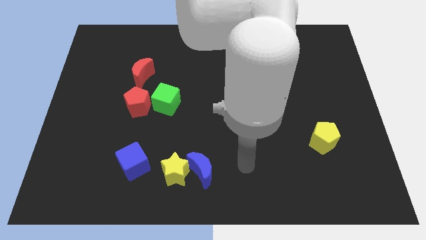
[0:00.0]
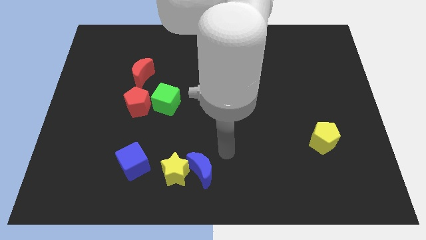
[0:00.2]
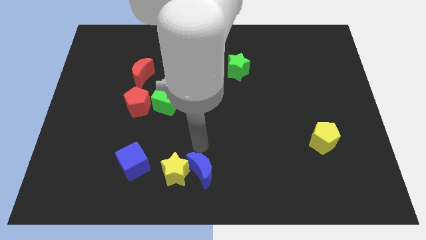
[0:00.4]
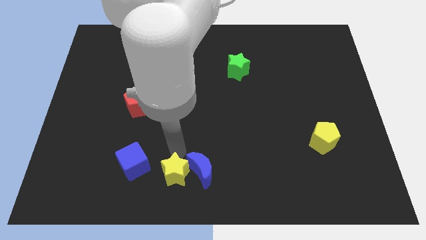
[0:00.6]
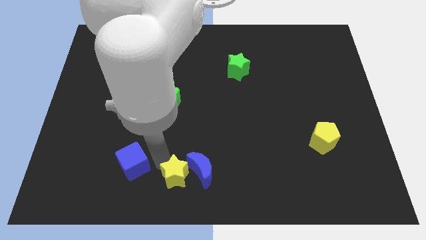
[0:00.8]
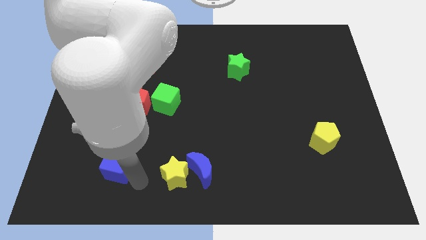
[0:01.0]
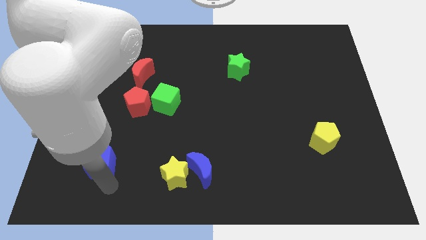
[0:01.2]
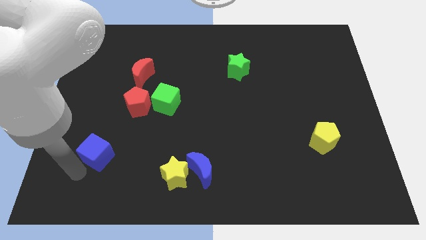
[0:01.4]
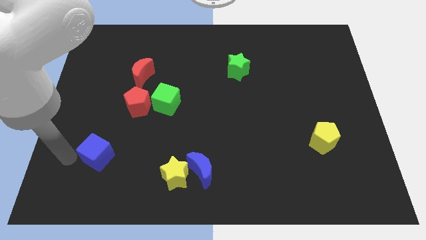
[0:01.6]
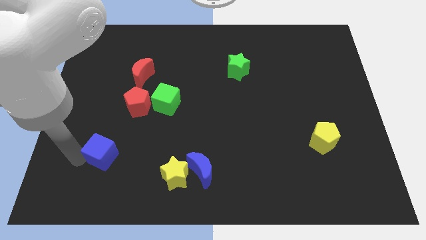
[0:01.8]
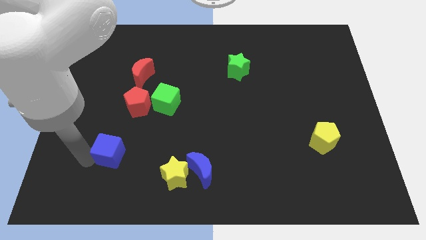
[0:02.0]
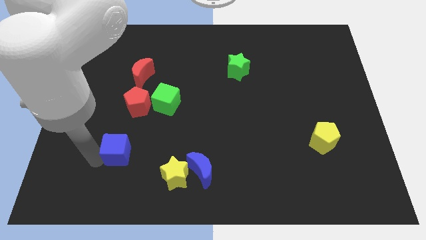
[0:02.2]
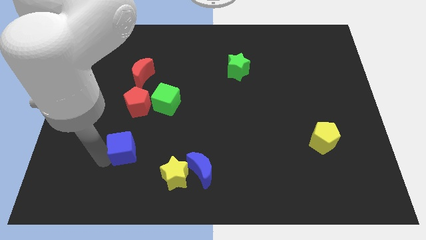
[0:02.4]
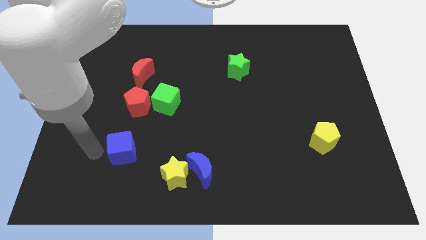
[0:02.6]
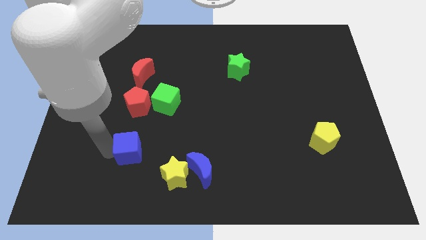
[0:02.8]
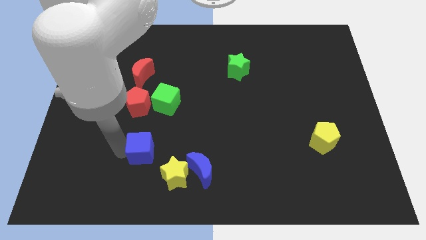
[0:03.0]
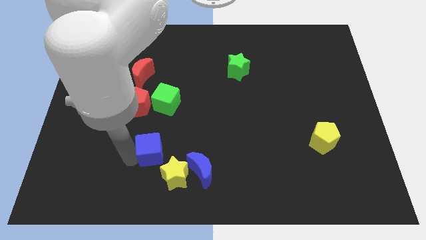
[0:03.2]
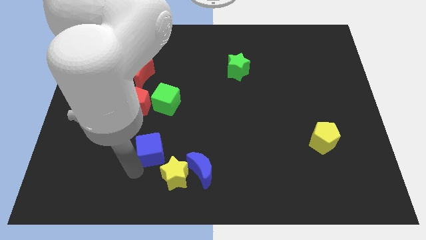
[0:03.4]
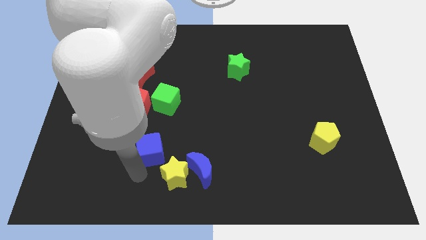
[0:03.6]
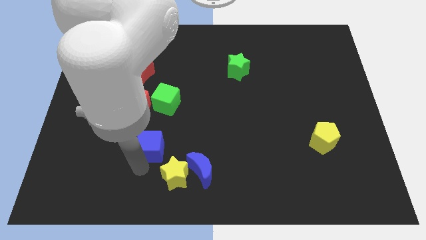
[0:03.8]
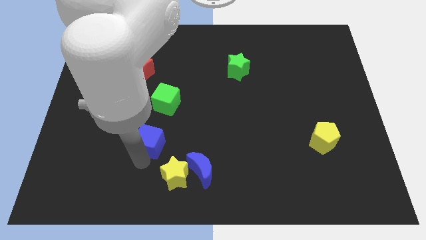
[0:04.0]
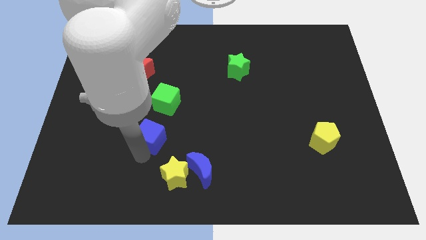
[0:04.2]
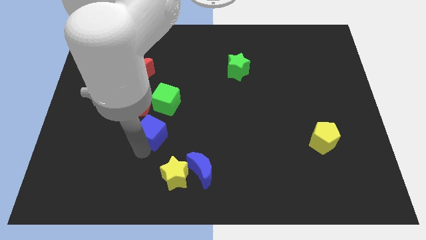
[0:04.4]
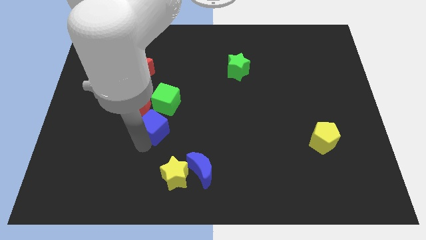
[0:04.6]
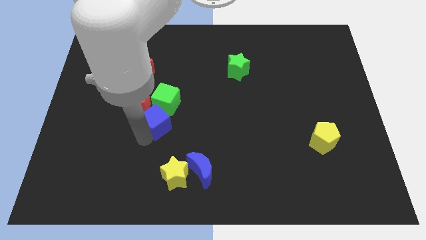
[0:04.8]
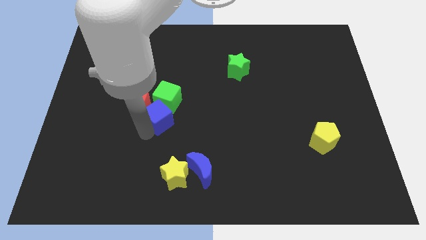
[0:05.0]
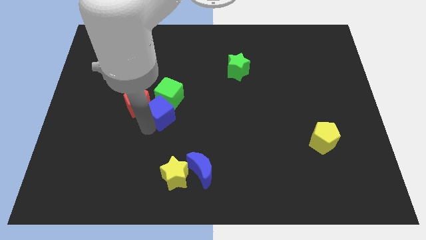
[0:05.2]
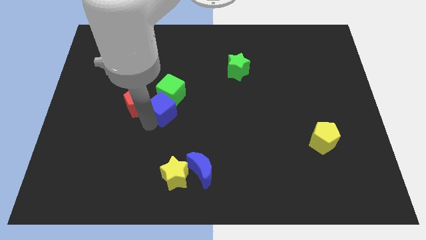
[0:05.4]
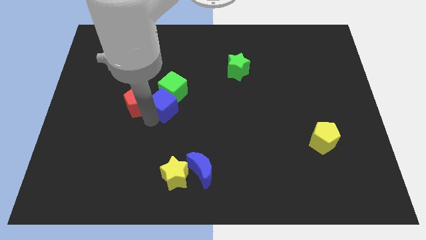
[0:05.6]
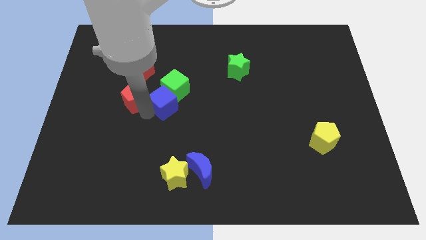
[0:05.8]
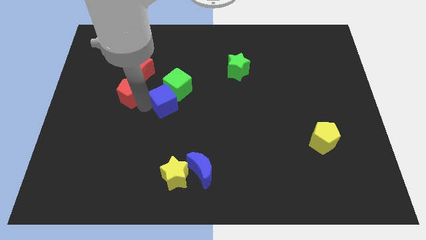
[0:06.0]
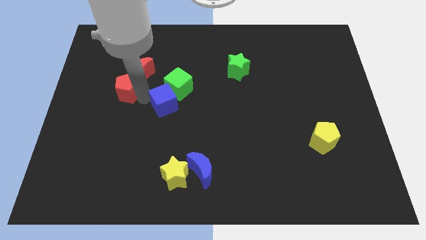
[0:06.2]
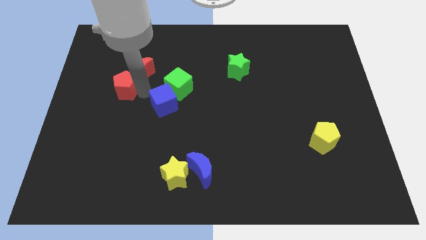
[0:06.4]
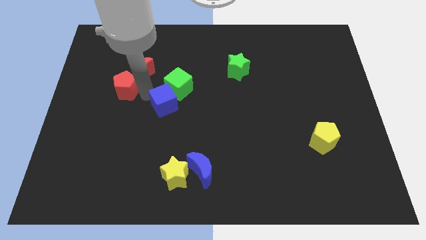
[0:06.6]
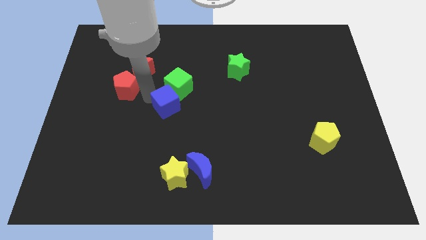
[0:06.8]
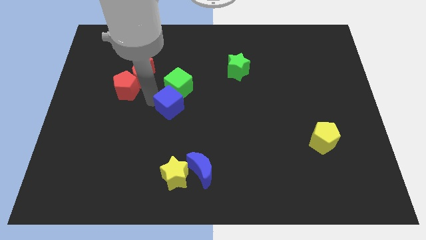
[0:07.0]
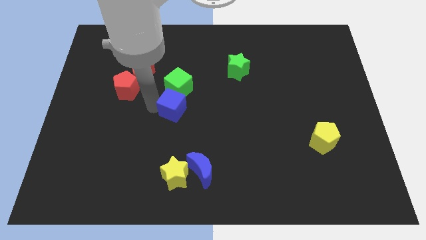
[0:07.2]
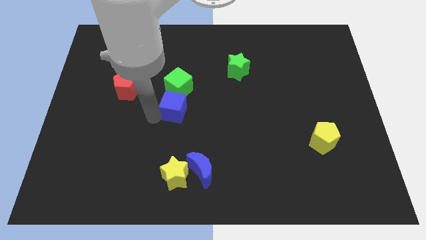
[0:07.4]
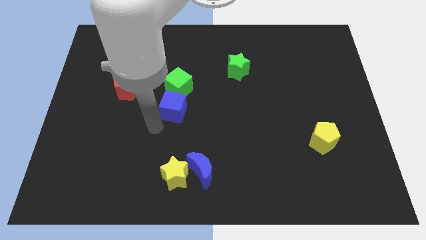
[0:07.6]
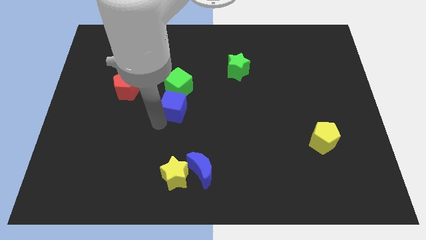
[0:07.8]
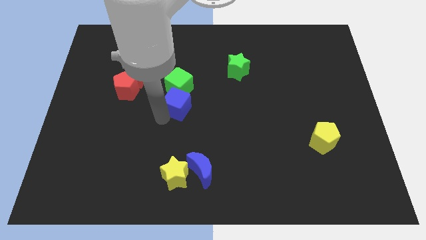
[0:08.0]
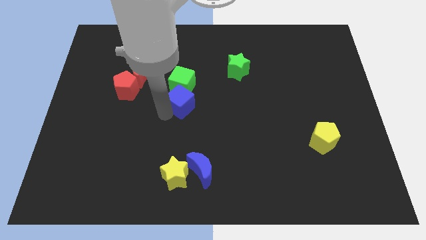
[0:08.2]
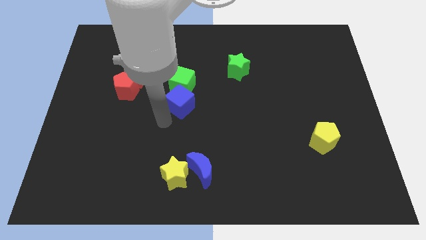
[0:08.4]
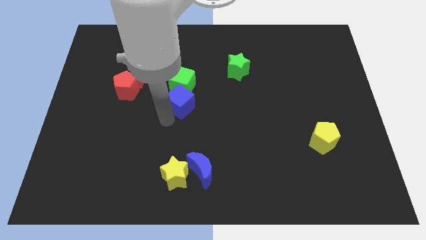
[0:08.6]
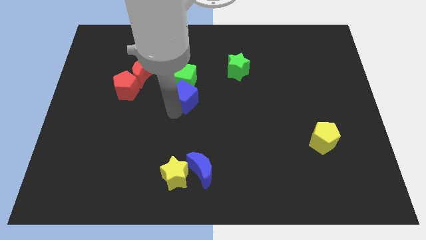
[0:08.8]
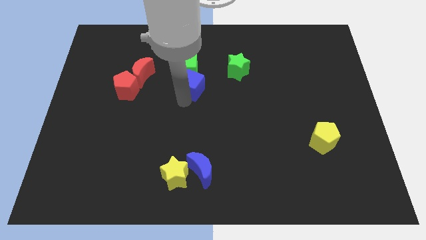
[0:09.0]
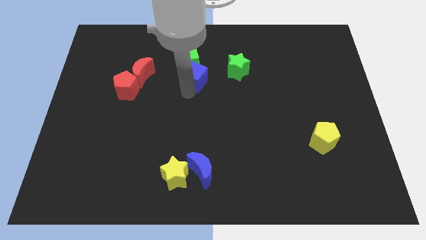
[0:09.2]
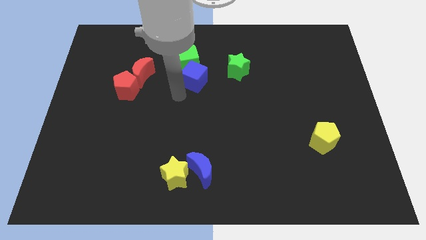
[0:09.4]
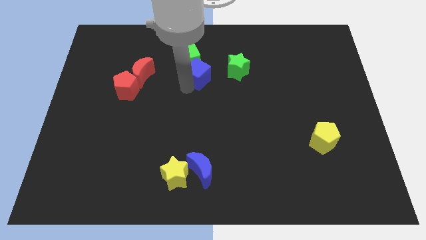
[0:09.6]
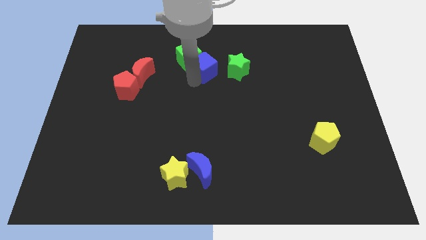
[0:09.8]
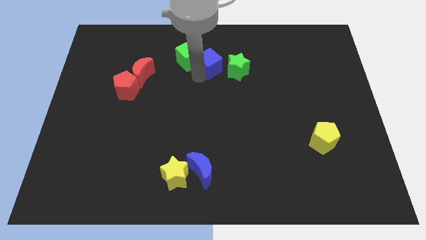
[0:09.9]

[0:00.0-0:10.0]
move the blue cube to the top left of the green star

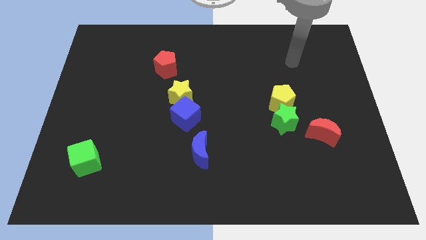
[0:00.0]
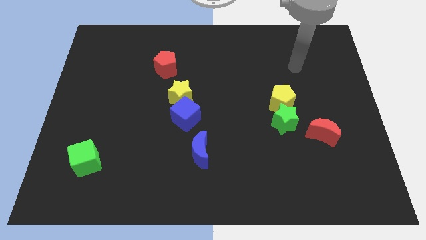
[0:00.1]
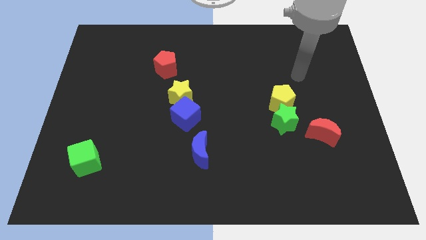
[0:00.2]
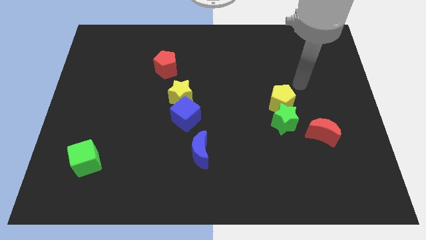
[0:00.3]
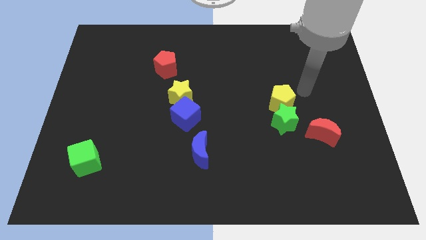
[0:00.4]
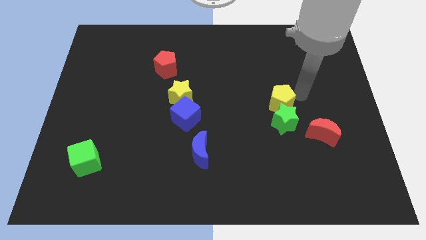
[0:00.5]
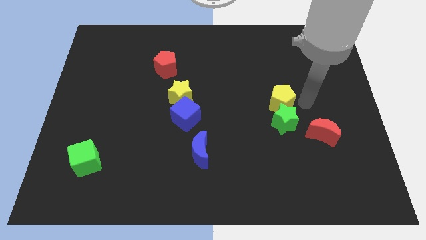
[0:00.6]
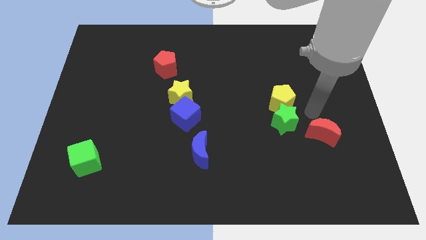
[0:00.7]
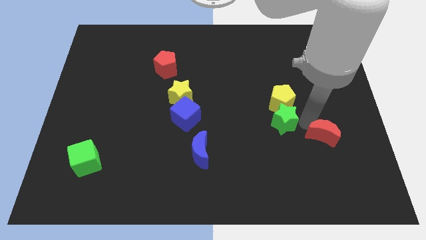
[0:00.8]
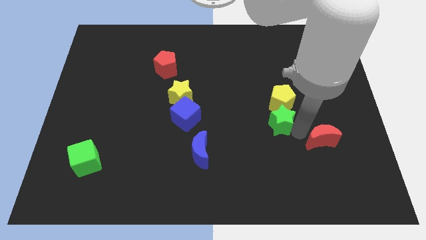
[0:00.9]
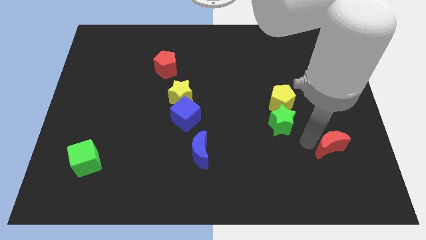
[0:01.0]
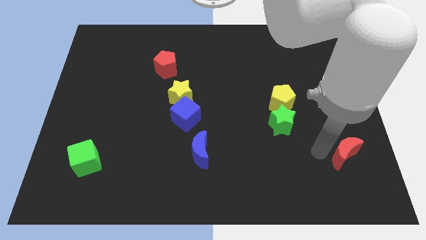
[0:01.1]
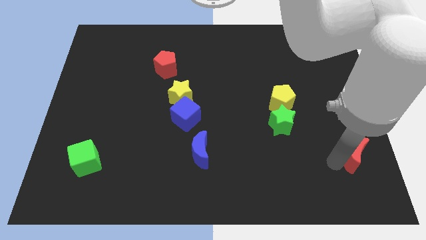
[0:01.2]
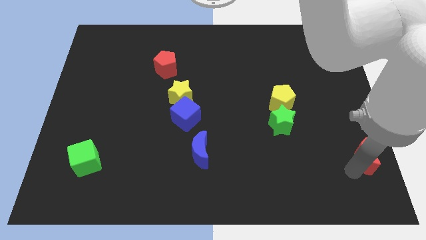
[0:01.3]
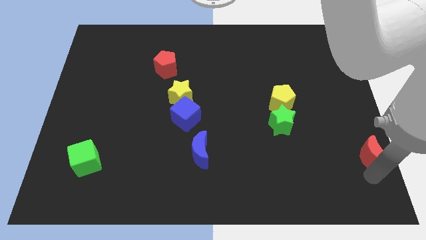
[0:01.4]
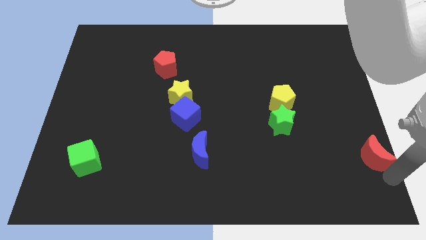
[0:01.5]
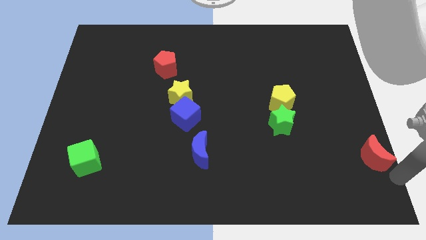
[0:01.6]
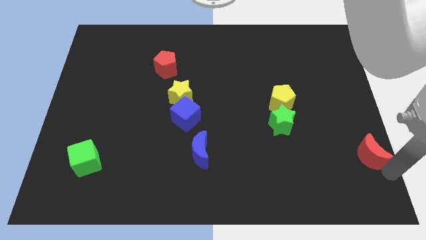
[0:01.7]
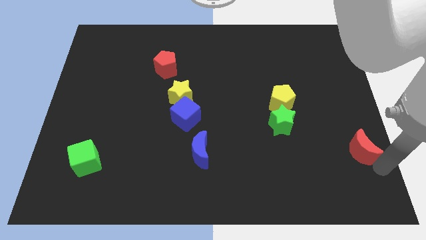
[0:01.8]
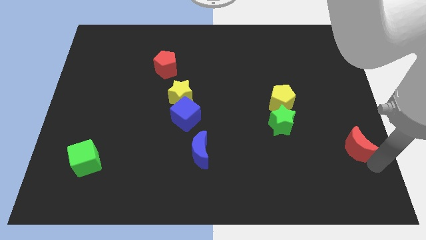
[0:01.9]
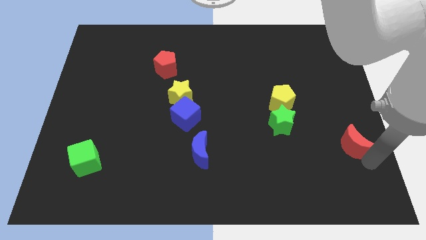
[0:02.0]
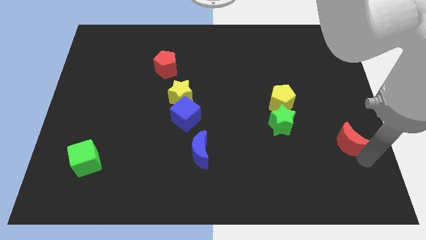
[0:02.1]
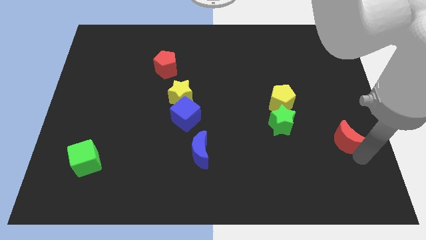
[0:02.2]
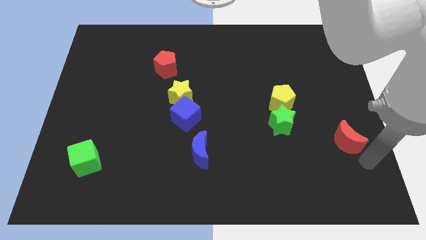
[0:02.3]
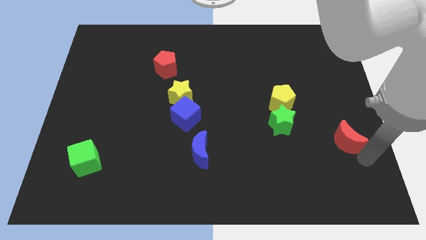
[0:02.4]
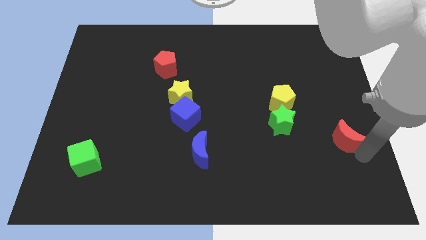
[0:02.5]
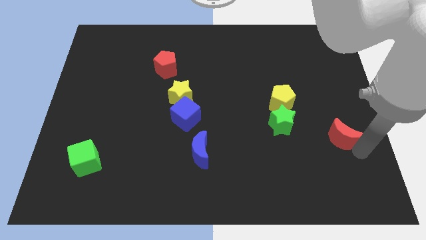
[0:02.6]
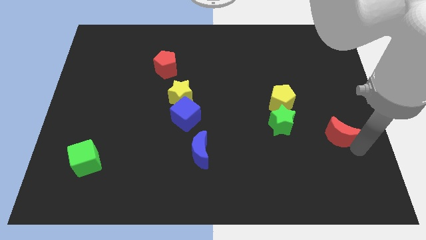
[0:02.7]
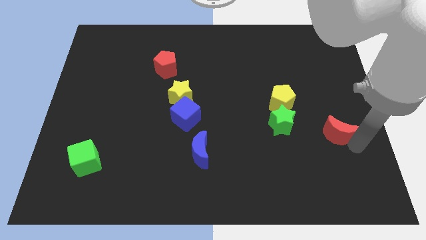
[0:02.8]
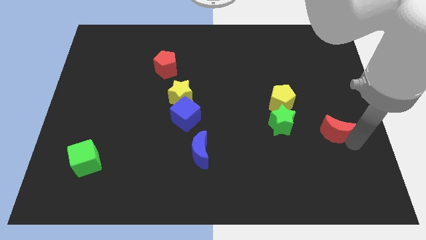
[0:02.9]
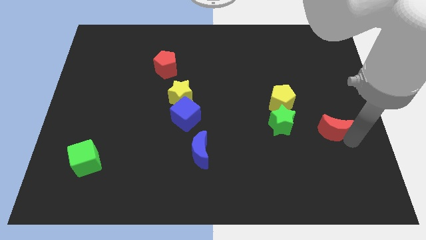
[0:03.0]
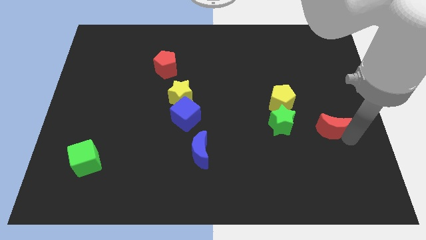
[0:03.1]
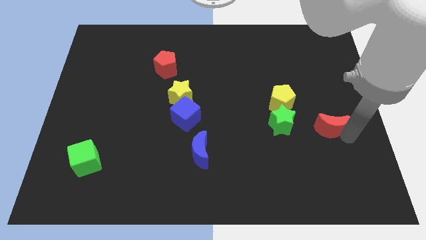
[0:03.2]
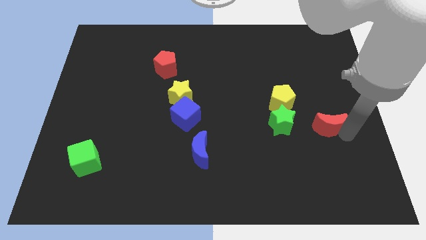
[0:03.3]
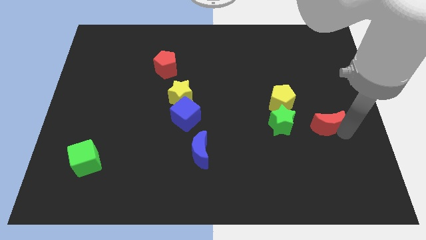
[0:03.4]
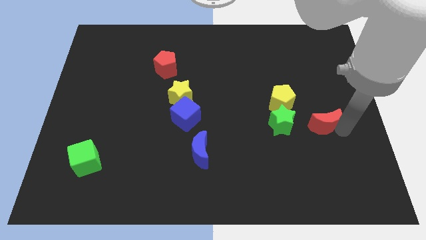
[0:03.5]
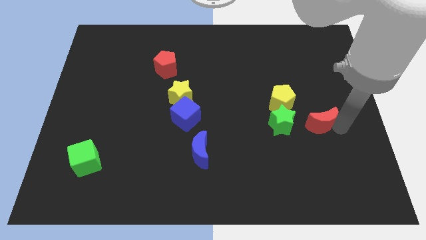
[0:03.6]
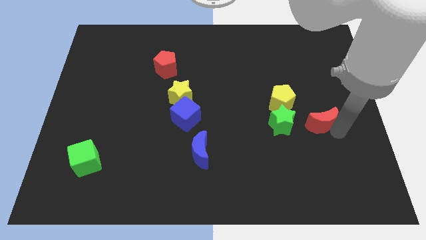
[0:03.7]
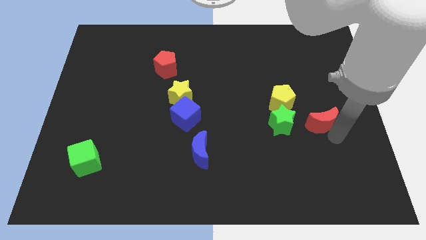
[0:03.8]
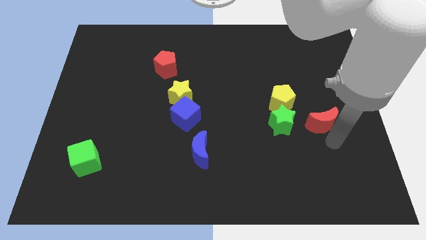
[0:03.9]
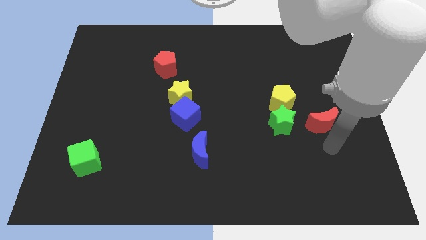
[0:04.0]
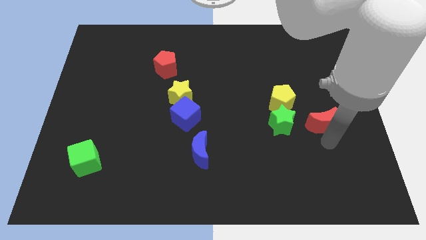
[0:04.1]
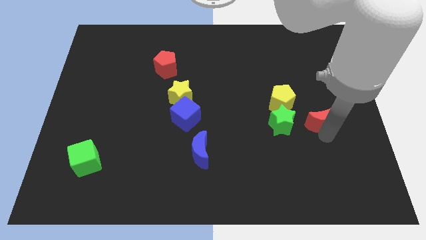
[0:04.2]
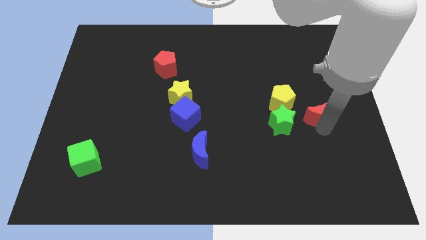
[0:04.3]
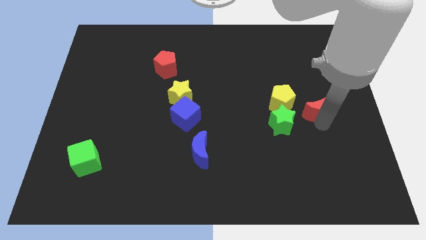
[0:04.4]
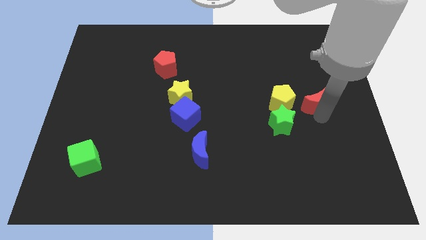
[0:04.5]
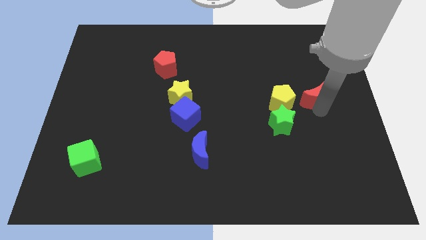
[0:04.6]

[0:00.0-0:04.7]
slide the red moon to the top right side of the yellow pentagon
